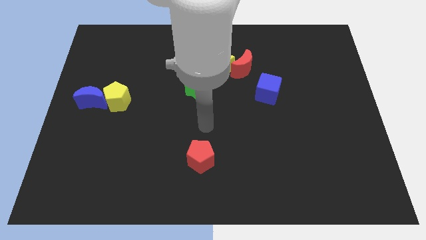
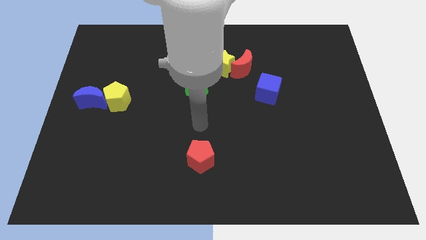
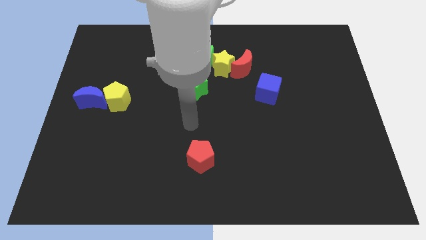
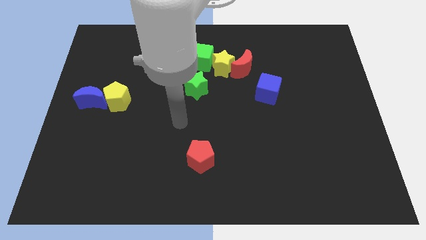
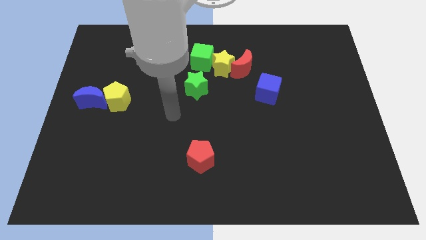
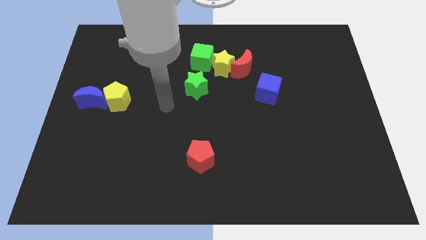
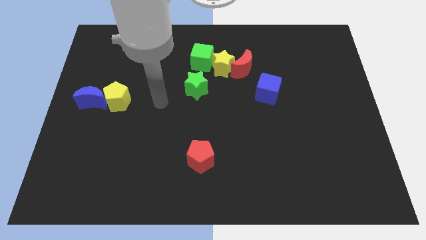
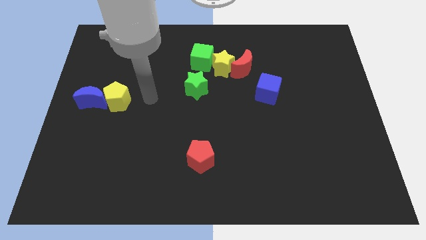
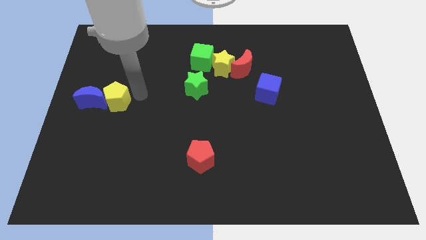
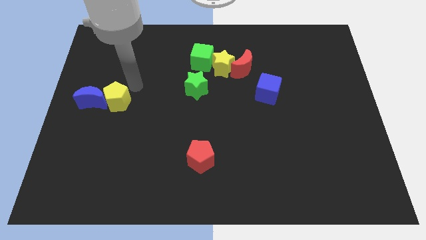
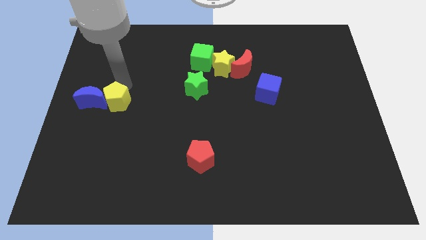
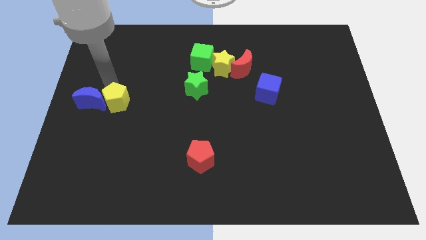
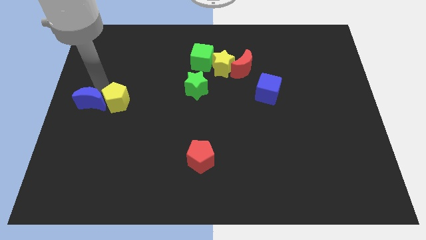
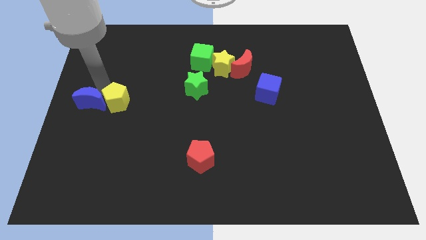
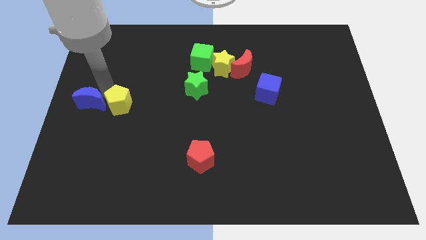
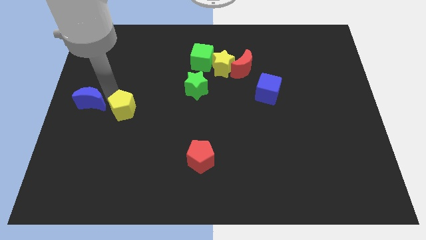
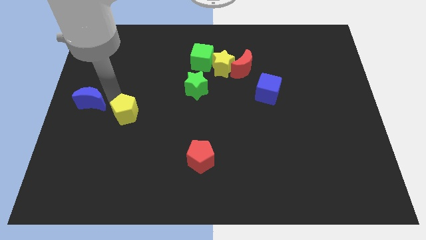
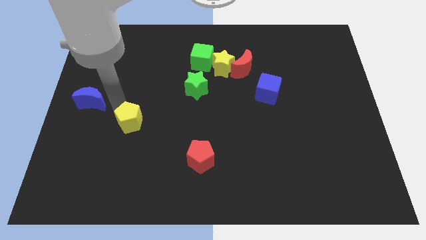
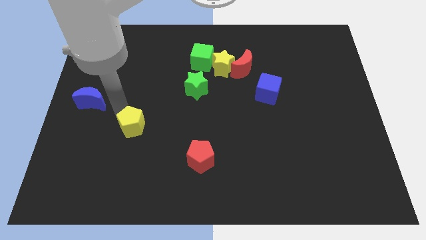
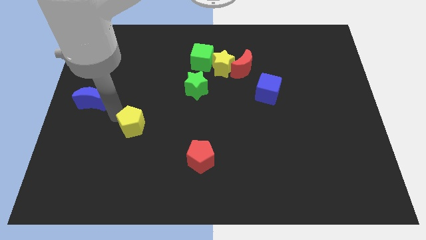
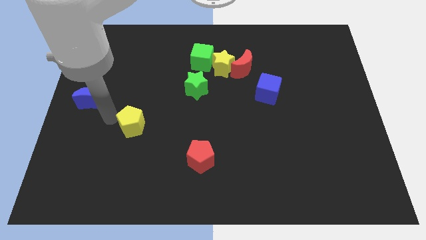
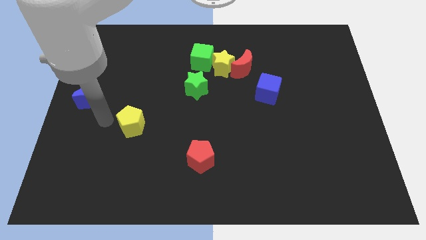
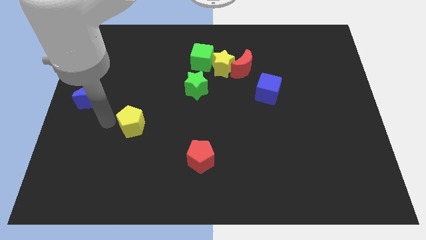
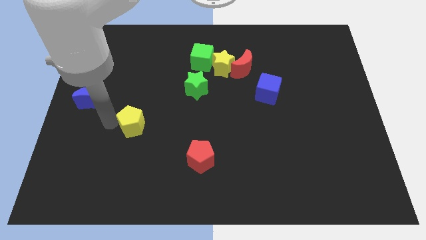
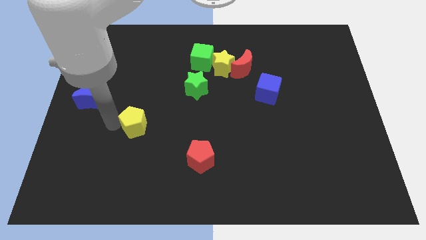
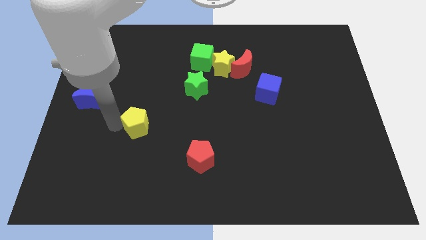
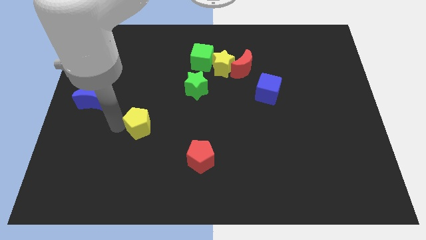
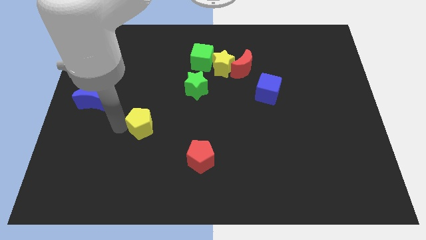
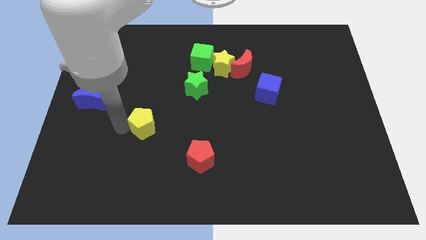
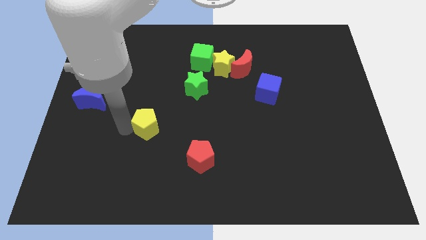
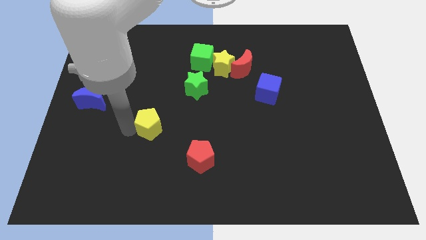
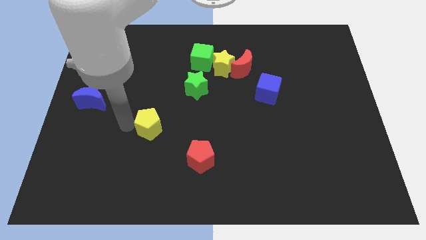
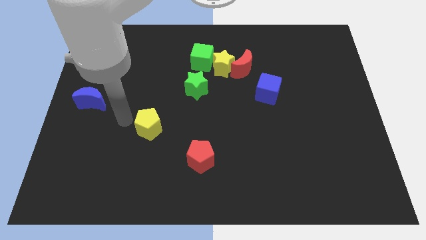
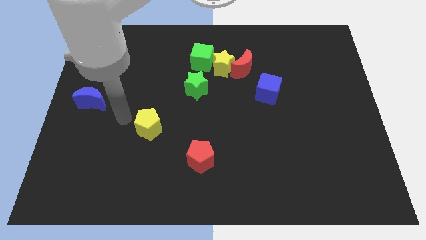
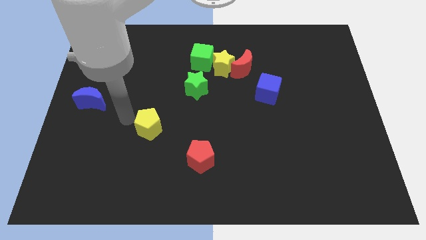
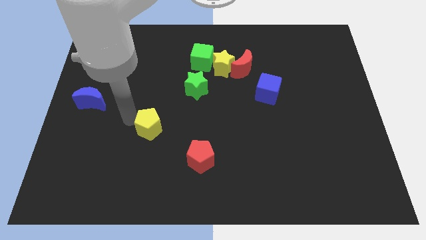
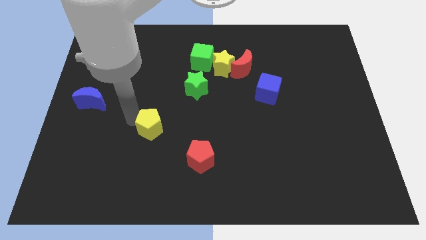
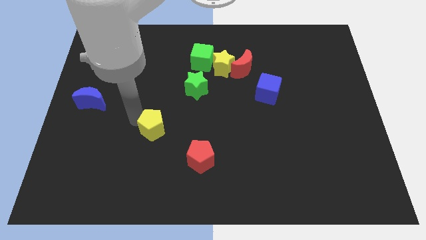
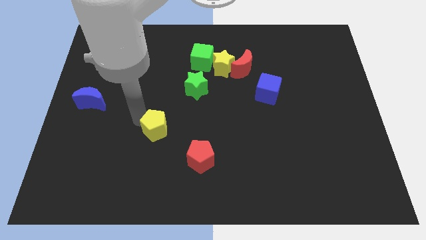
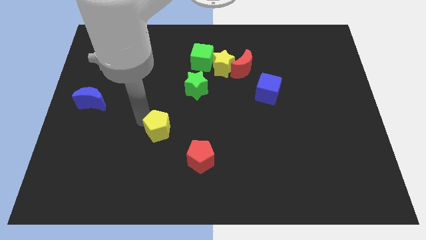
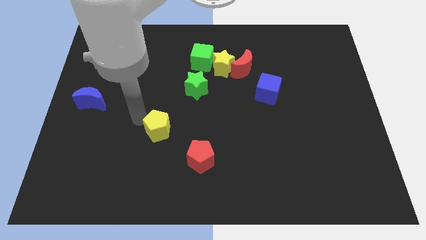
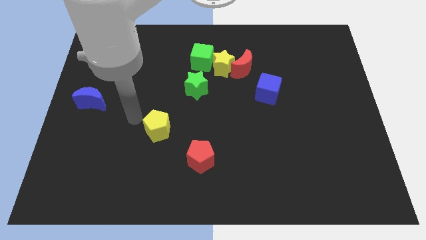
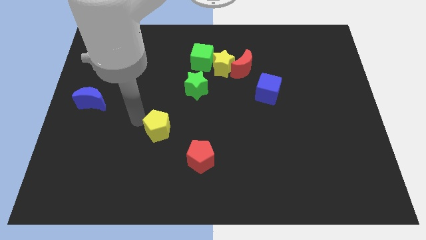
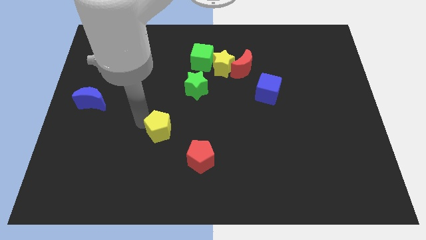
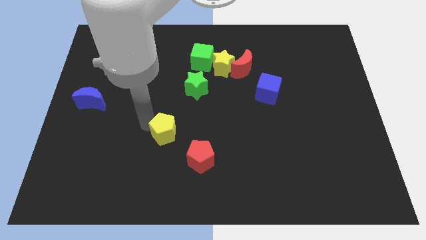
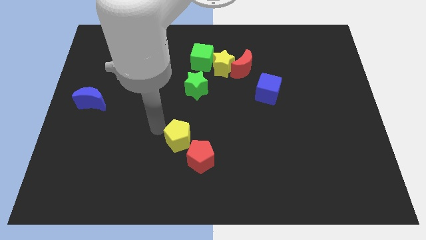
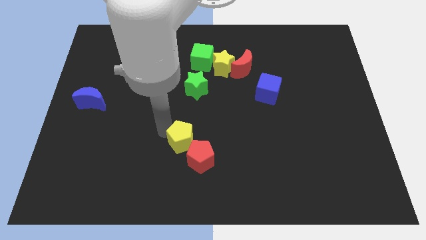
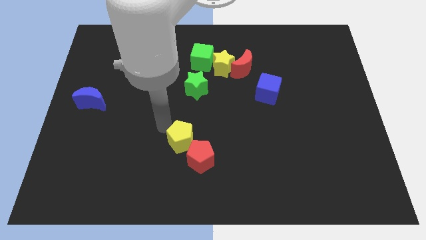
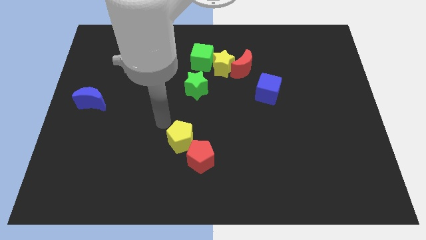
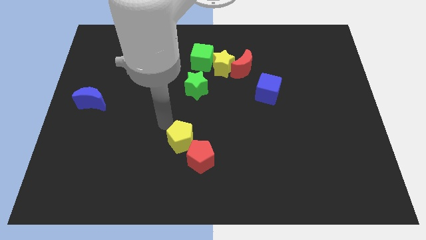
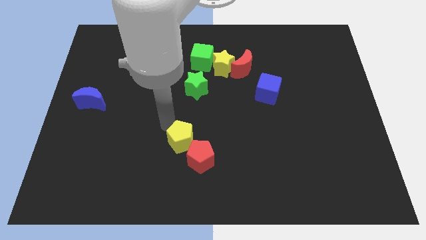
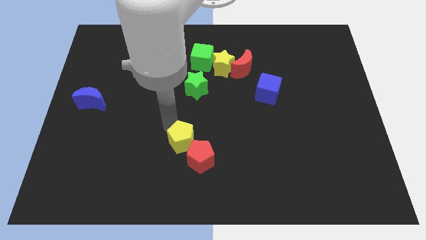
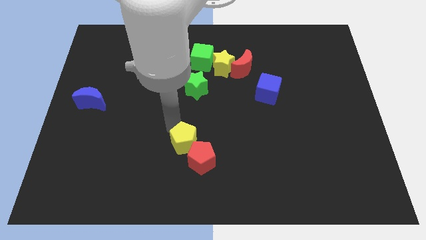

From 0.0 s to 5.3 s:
move the yellow pentagon next to the red pentagon

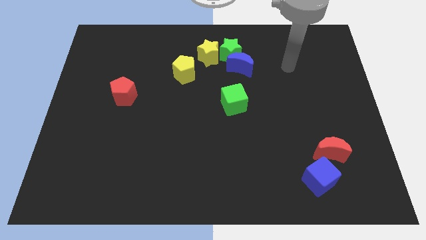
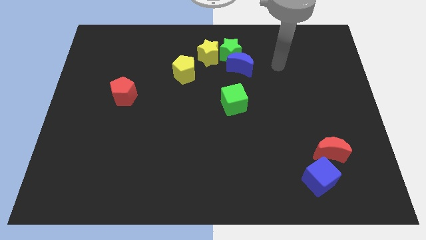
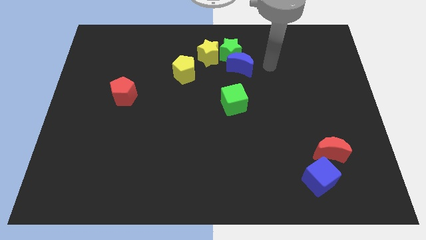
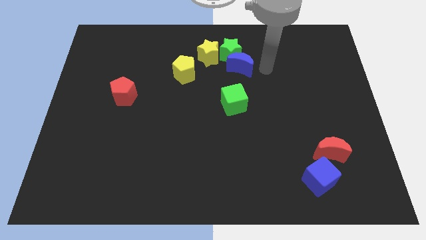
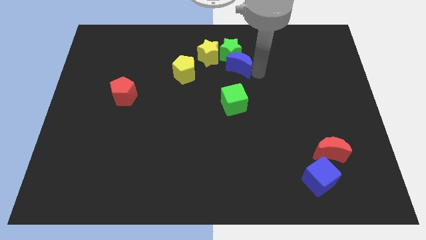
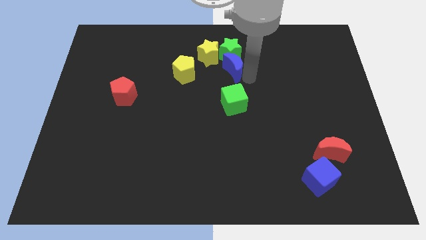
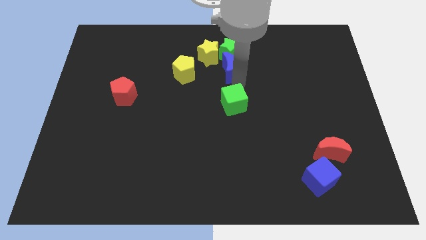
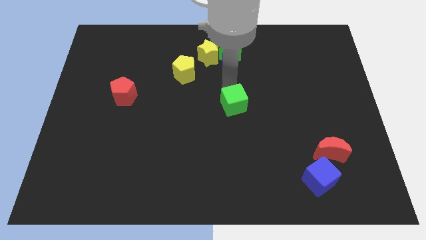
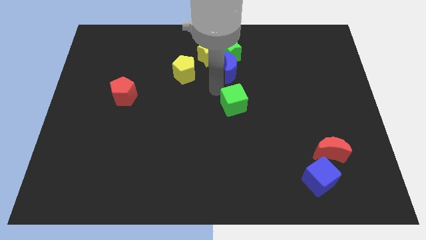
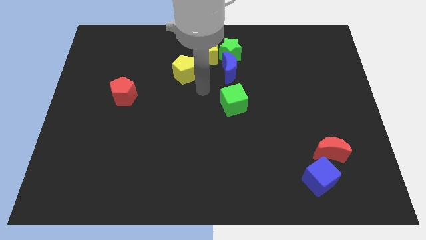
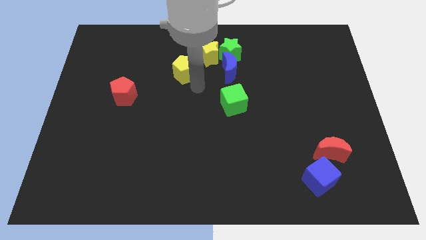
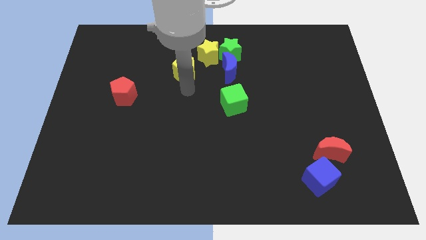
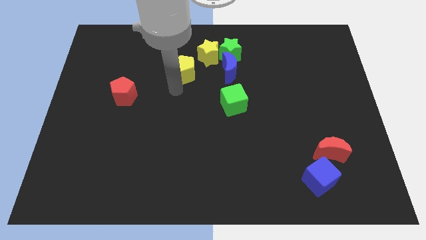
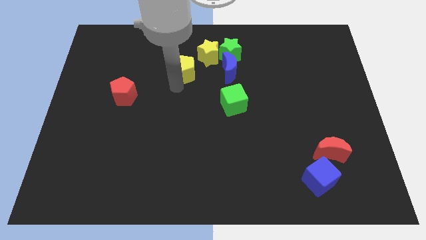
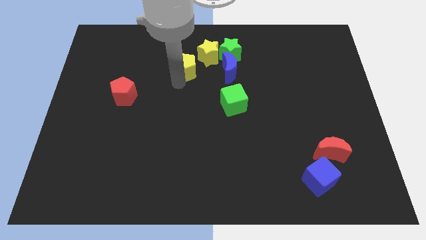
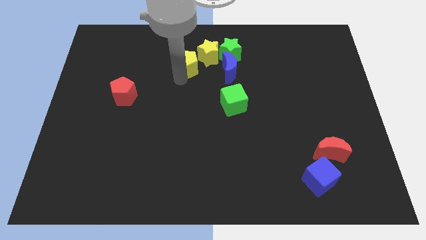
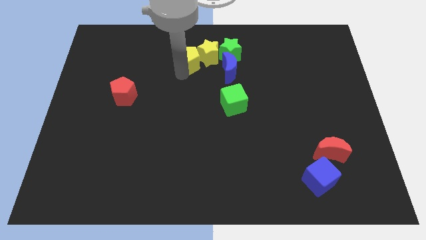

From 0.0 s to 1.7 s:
slide the yellow pentagon to the yellow star

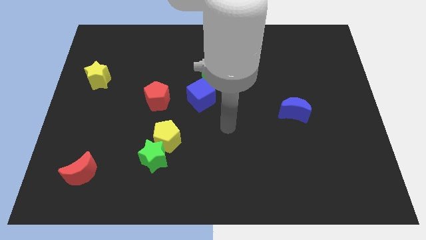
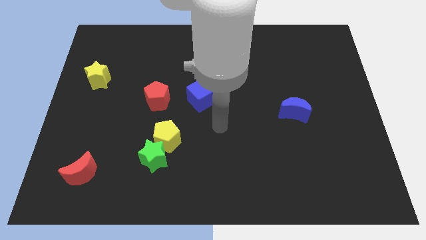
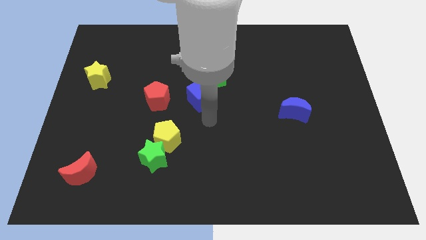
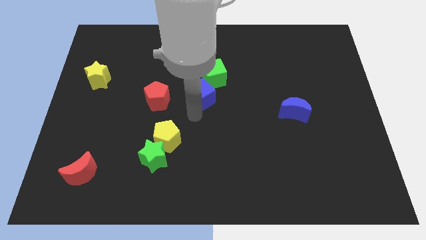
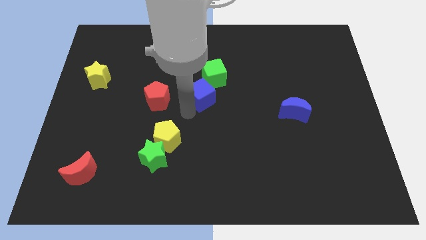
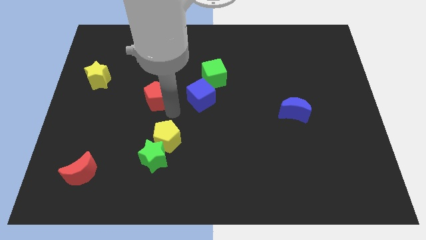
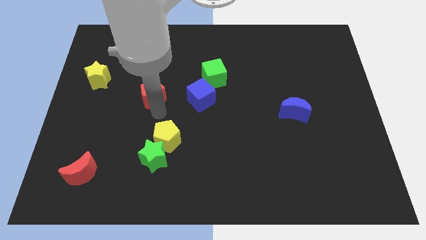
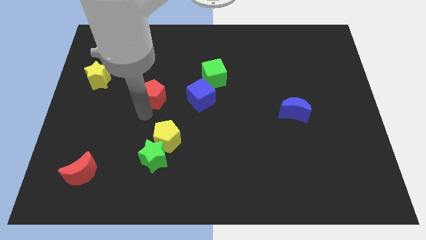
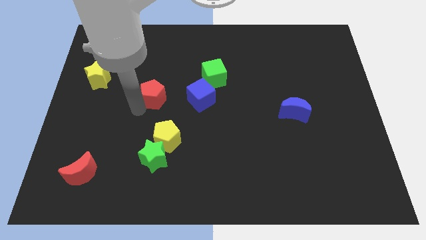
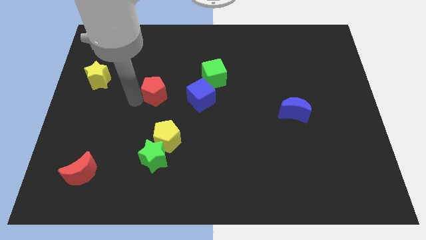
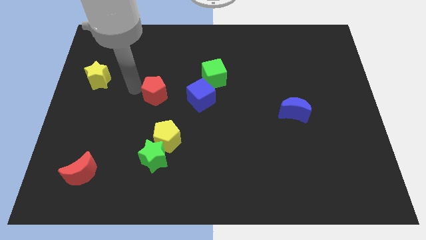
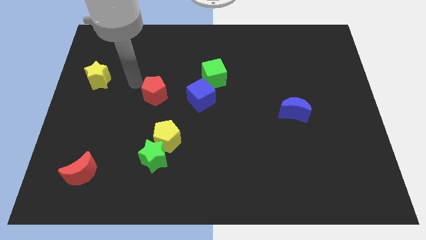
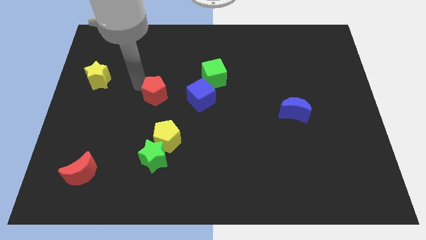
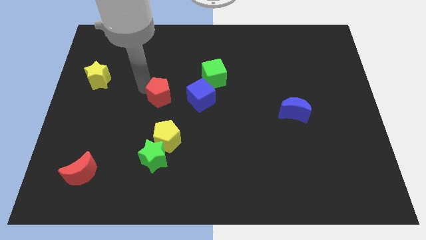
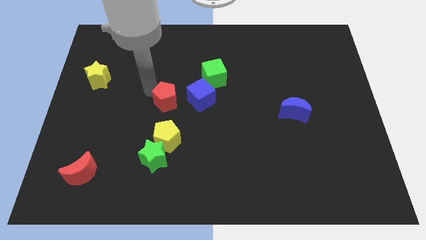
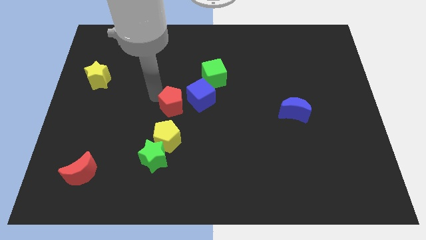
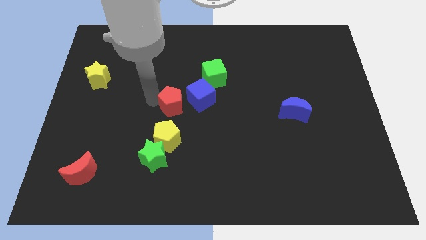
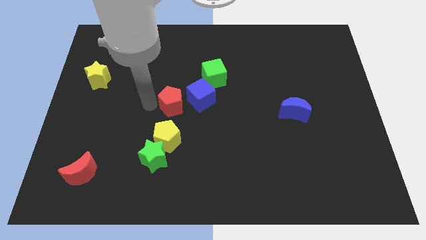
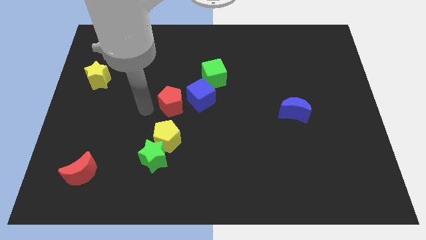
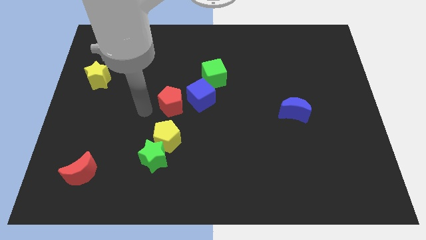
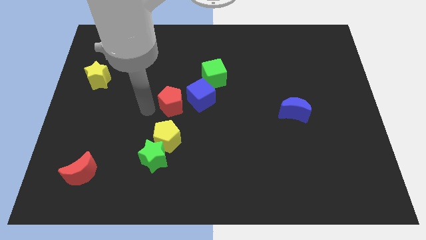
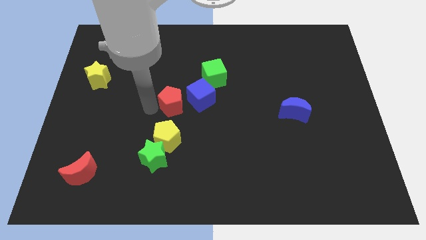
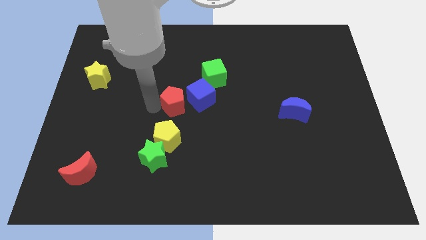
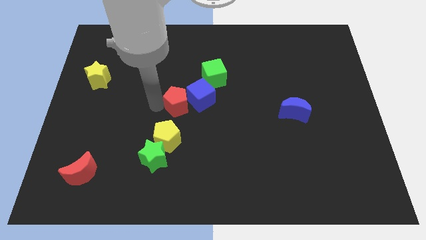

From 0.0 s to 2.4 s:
push the red pentagon towards the blue cube
